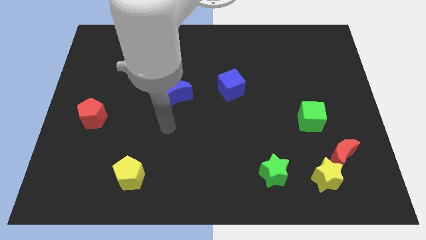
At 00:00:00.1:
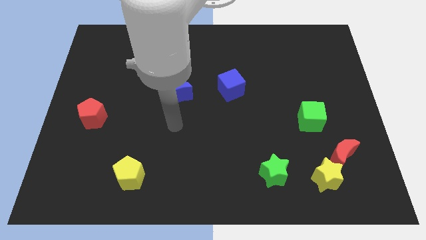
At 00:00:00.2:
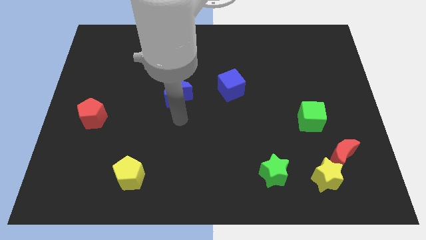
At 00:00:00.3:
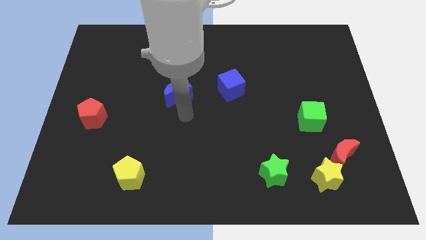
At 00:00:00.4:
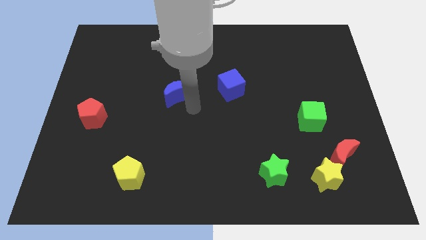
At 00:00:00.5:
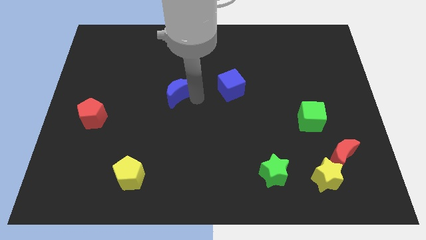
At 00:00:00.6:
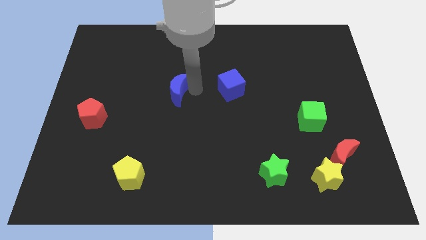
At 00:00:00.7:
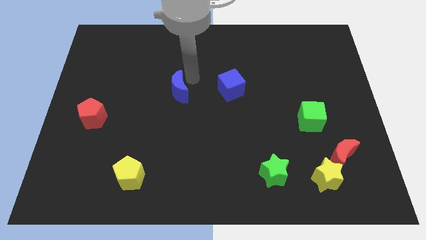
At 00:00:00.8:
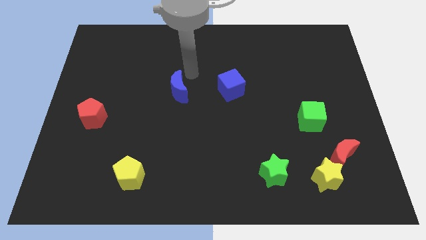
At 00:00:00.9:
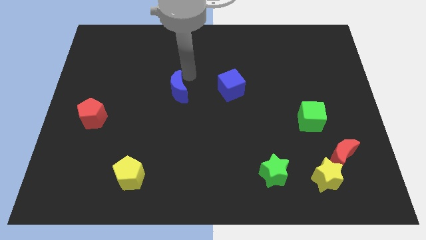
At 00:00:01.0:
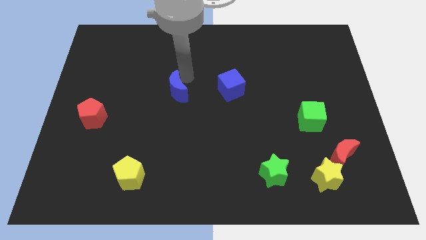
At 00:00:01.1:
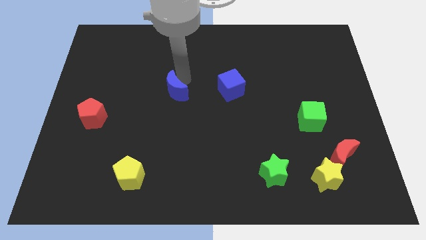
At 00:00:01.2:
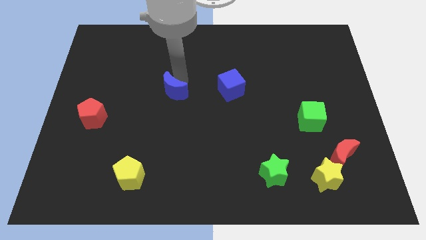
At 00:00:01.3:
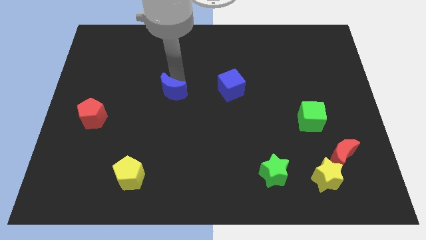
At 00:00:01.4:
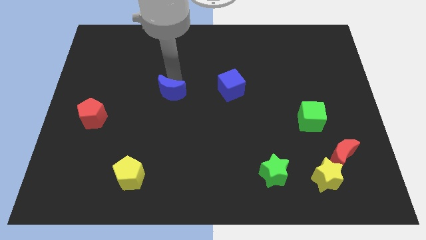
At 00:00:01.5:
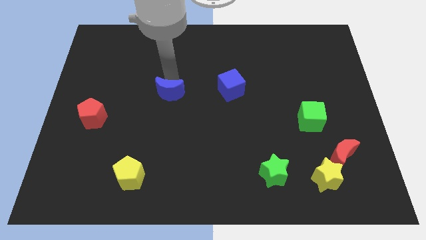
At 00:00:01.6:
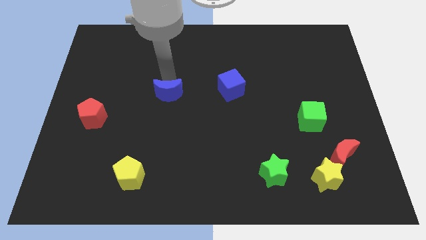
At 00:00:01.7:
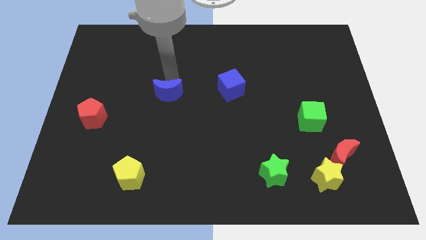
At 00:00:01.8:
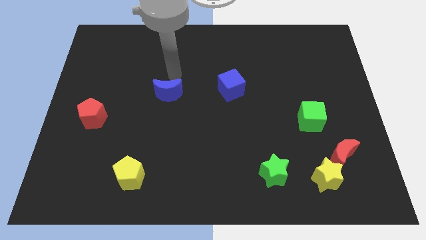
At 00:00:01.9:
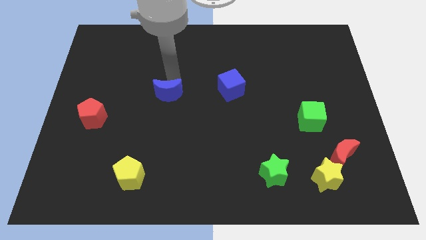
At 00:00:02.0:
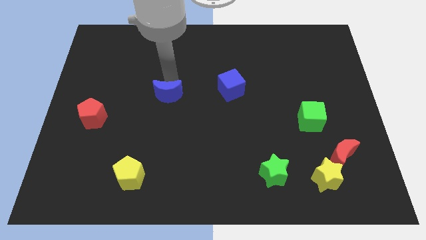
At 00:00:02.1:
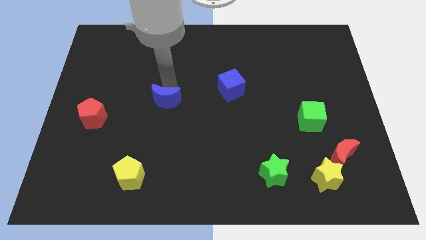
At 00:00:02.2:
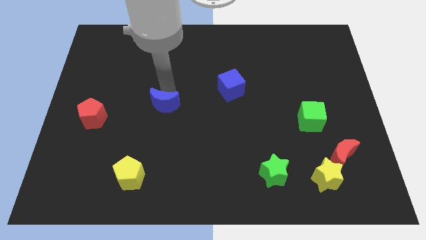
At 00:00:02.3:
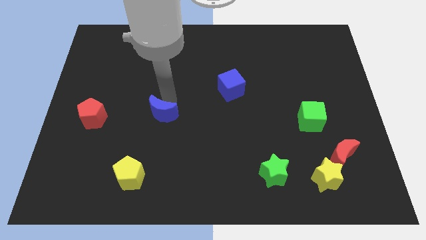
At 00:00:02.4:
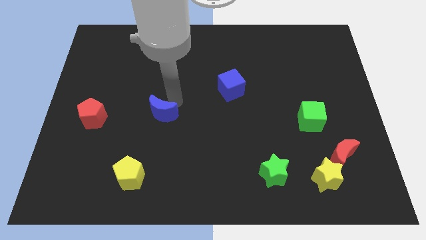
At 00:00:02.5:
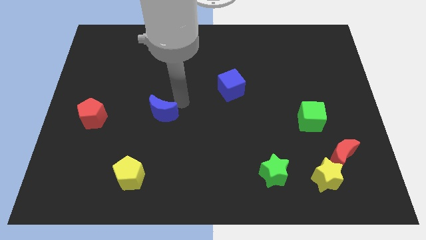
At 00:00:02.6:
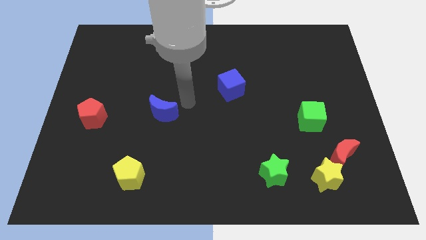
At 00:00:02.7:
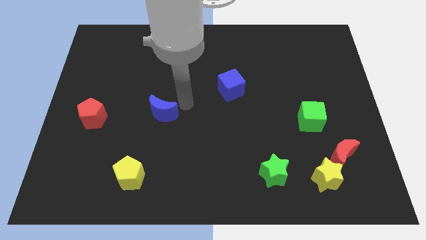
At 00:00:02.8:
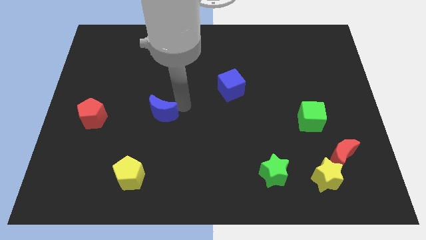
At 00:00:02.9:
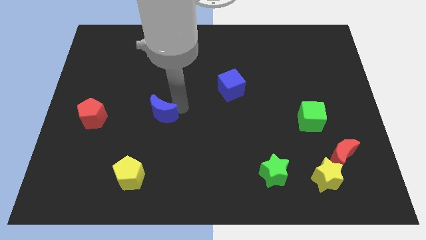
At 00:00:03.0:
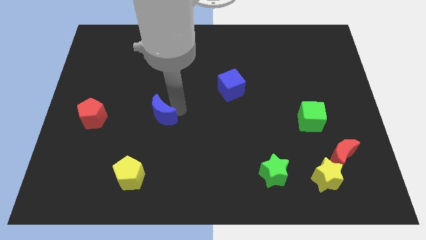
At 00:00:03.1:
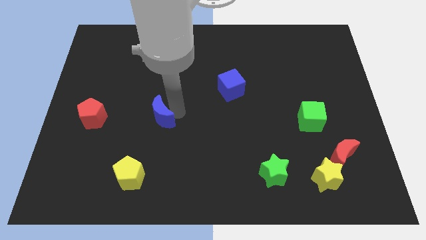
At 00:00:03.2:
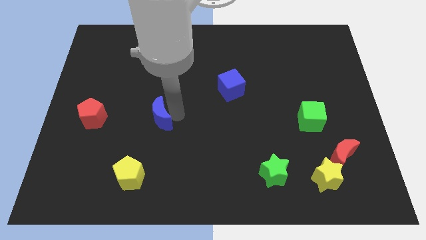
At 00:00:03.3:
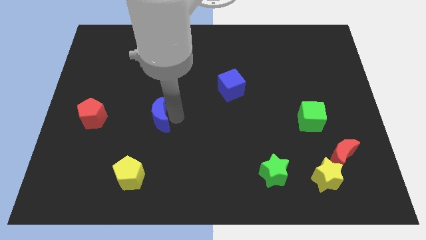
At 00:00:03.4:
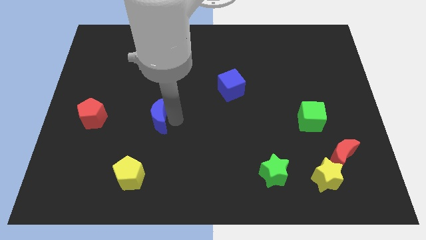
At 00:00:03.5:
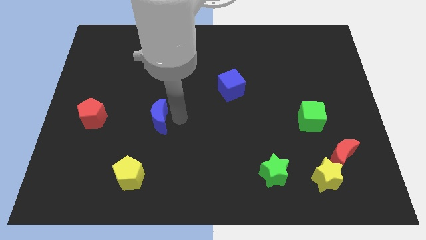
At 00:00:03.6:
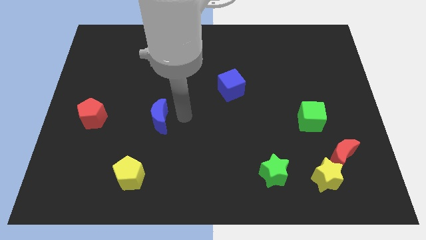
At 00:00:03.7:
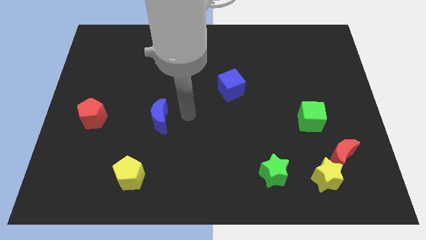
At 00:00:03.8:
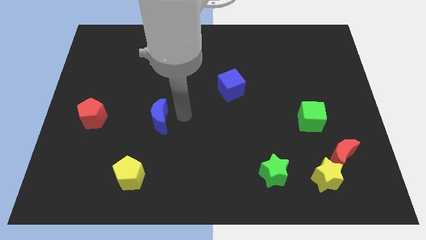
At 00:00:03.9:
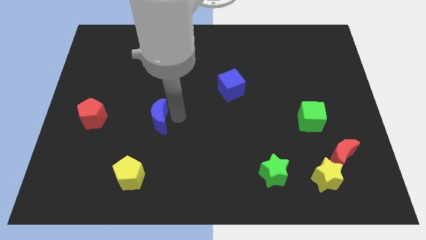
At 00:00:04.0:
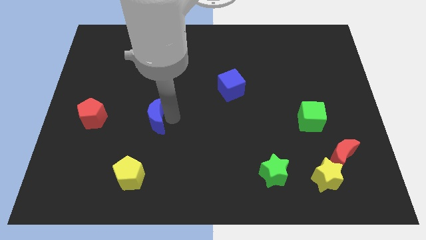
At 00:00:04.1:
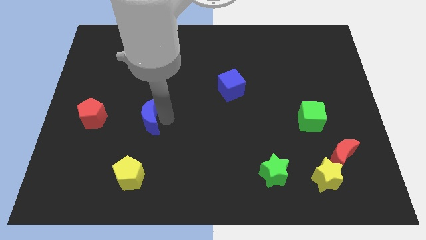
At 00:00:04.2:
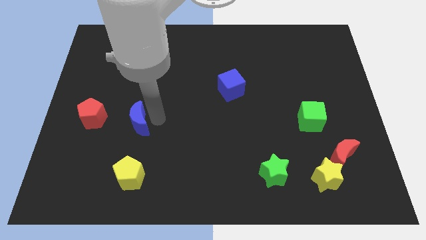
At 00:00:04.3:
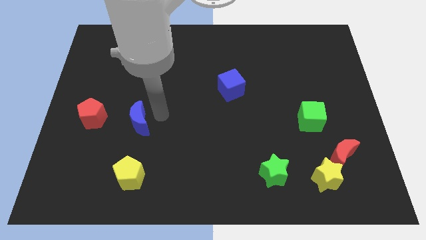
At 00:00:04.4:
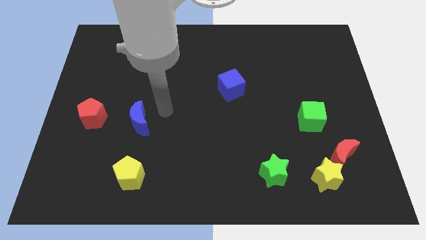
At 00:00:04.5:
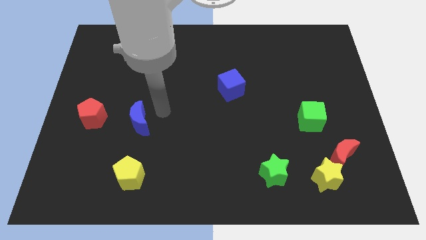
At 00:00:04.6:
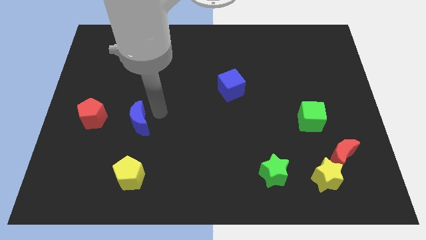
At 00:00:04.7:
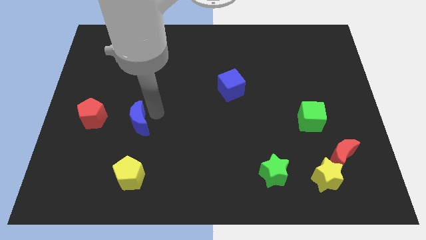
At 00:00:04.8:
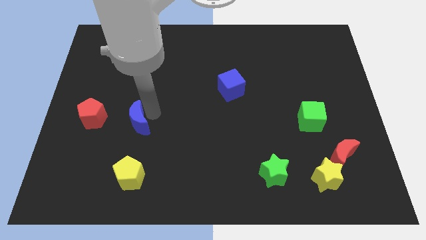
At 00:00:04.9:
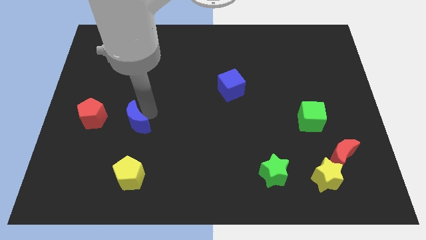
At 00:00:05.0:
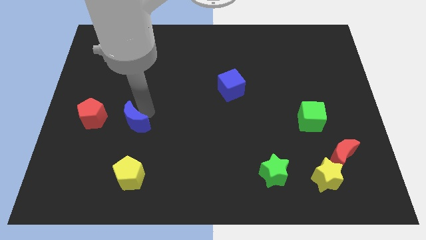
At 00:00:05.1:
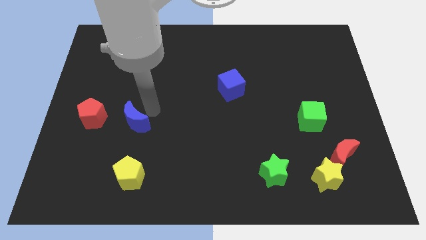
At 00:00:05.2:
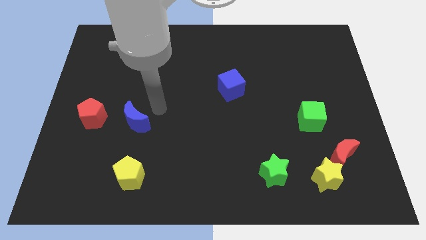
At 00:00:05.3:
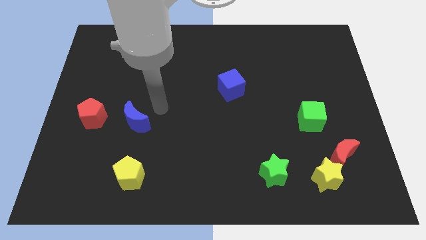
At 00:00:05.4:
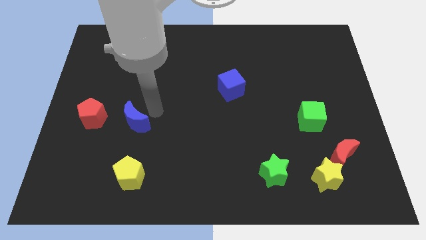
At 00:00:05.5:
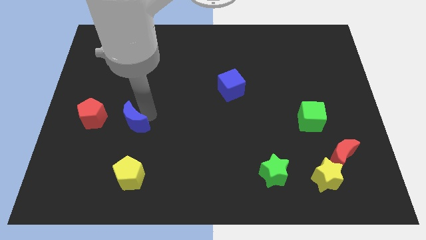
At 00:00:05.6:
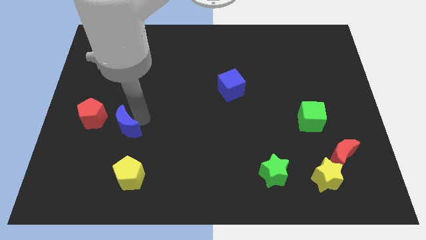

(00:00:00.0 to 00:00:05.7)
slide the blue moon to the bottom right side of the red pentagon

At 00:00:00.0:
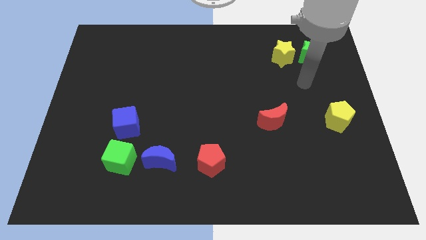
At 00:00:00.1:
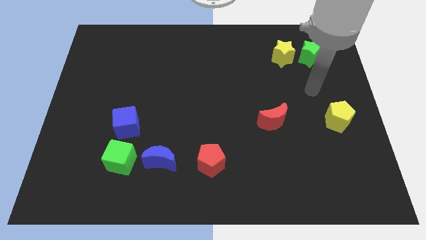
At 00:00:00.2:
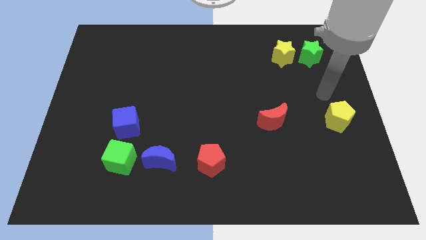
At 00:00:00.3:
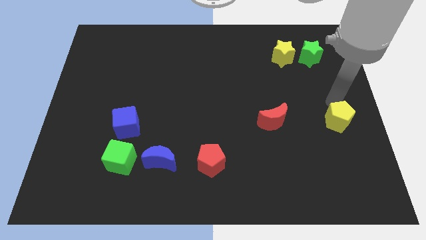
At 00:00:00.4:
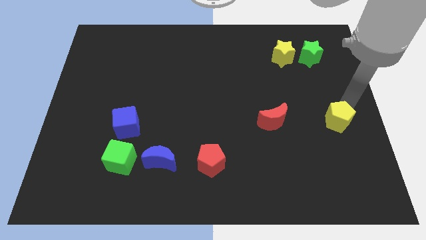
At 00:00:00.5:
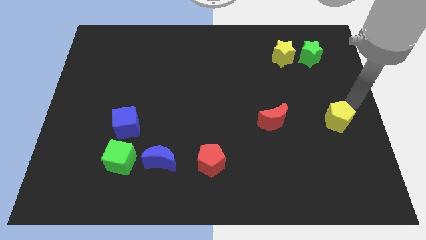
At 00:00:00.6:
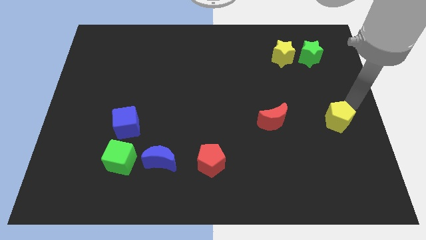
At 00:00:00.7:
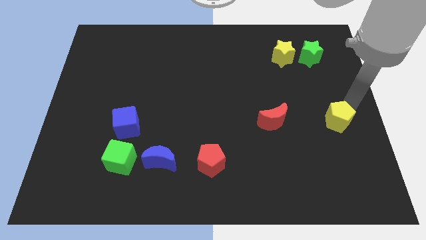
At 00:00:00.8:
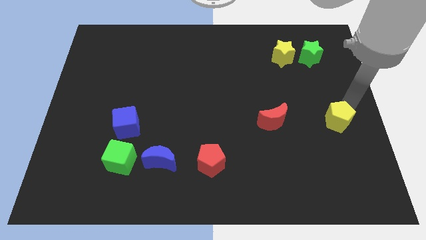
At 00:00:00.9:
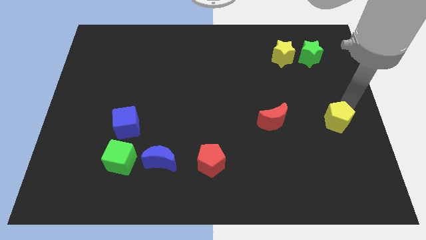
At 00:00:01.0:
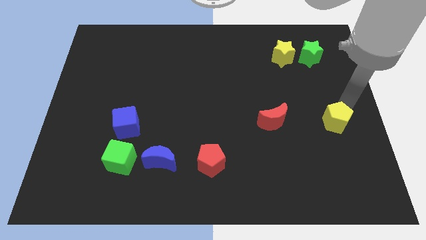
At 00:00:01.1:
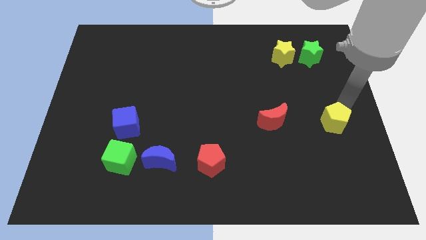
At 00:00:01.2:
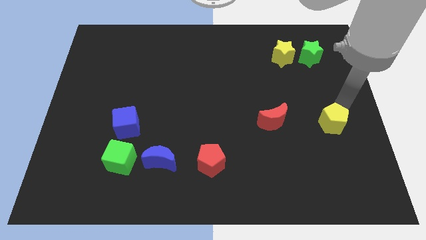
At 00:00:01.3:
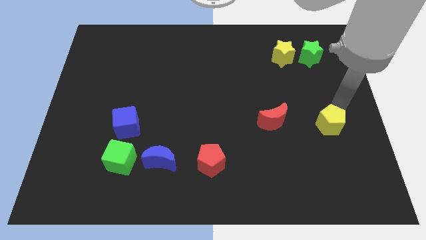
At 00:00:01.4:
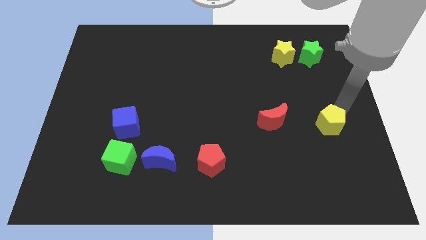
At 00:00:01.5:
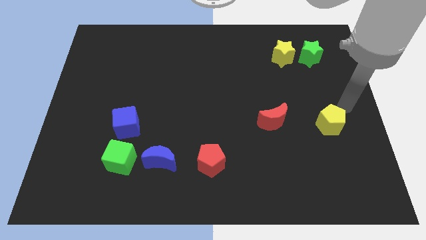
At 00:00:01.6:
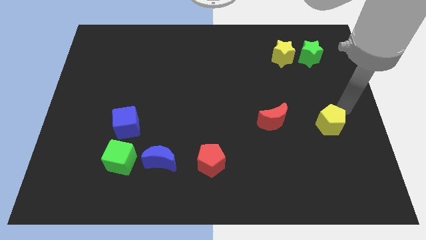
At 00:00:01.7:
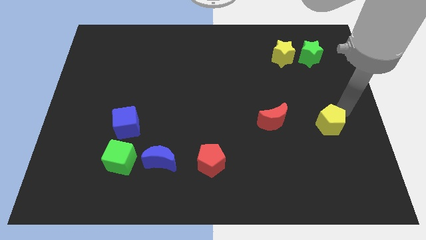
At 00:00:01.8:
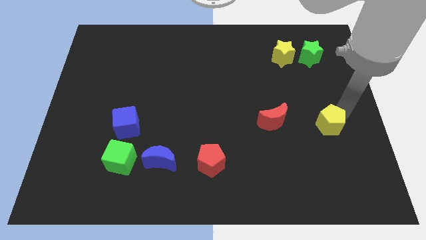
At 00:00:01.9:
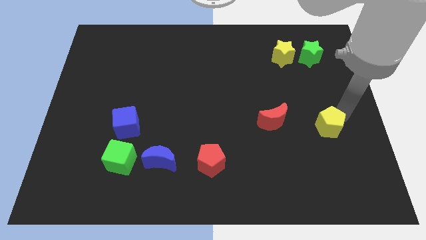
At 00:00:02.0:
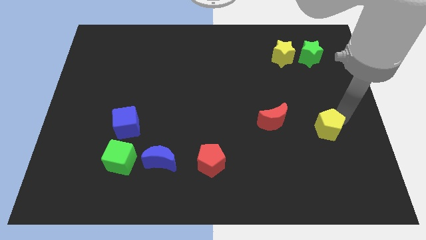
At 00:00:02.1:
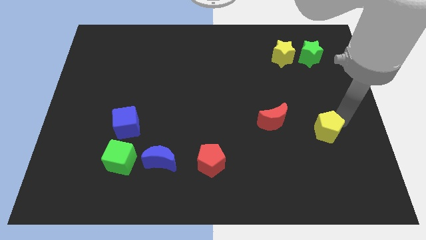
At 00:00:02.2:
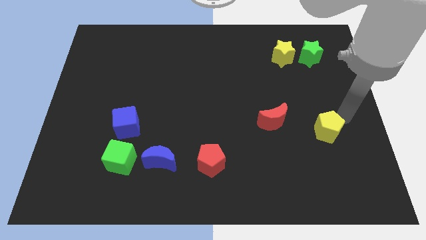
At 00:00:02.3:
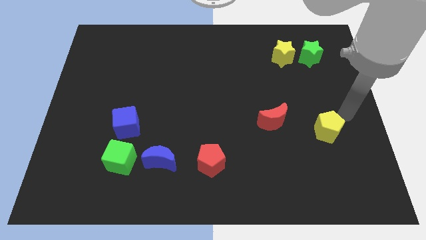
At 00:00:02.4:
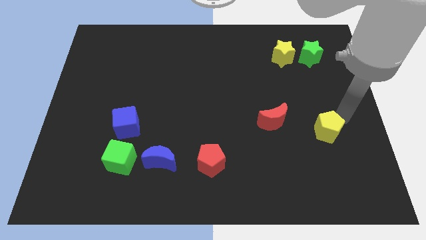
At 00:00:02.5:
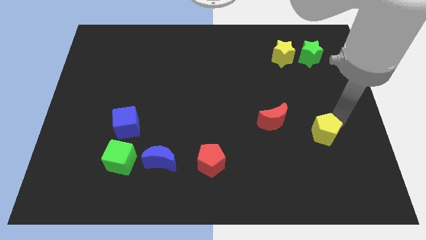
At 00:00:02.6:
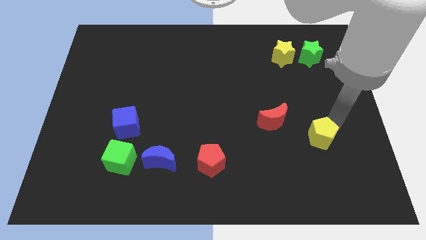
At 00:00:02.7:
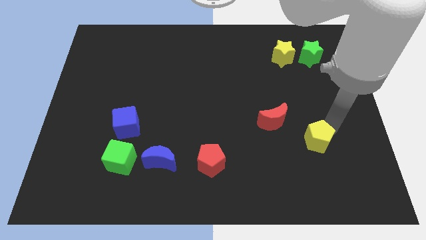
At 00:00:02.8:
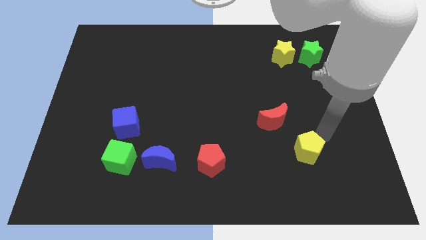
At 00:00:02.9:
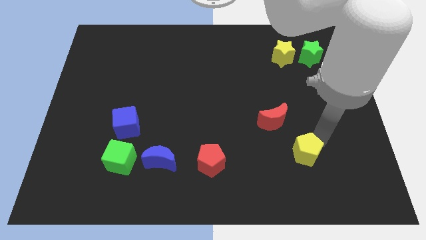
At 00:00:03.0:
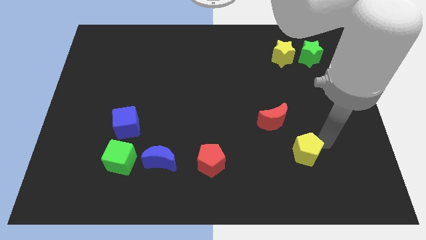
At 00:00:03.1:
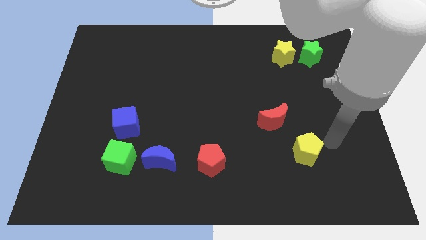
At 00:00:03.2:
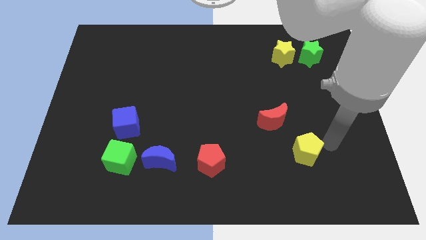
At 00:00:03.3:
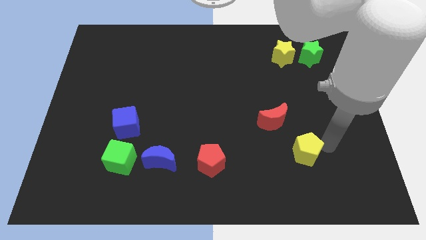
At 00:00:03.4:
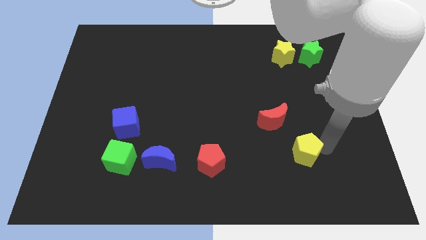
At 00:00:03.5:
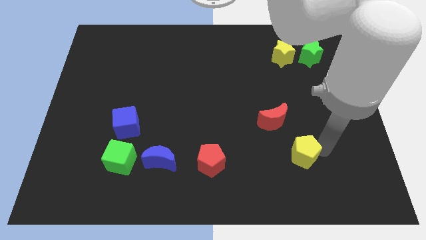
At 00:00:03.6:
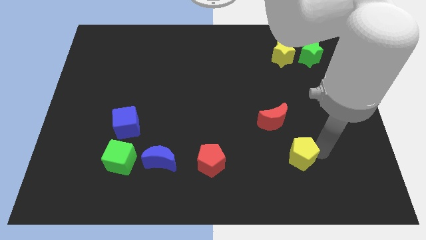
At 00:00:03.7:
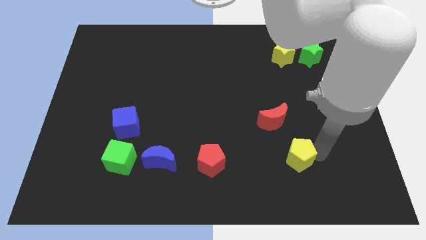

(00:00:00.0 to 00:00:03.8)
move the yellow pentagon below the red moon
